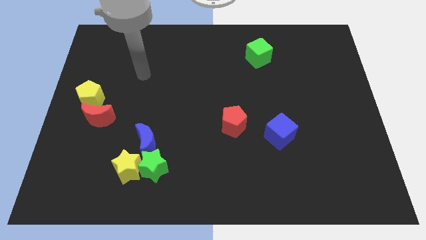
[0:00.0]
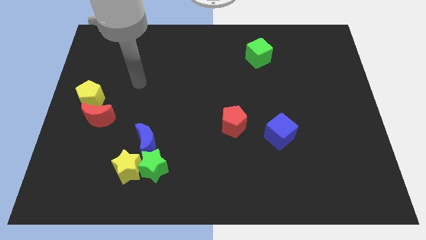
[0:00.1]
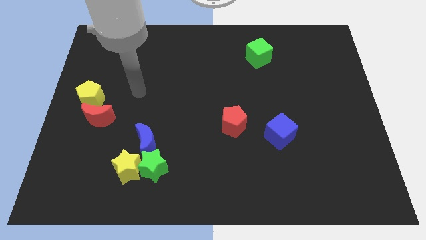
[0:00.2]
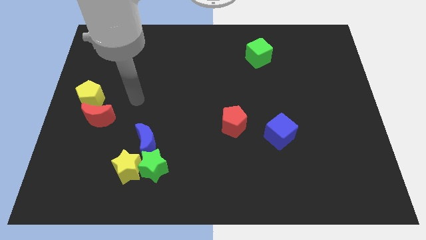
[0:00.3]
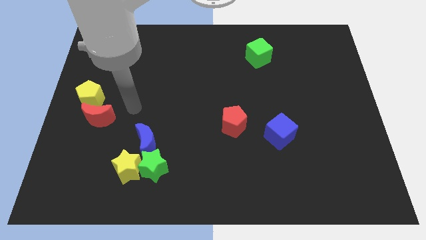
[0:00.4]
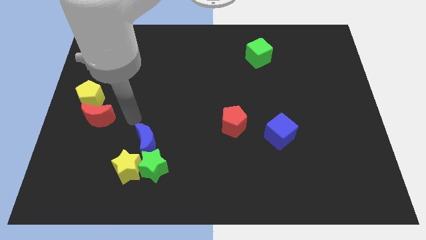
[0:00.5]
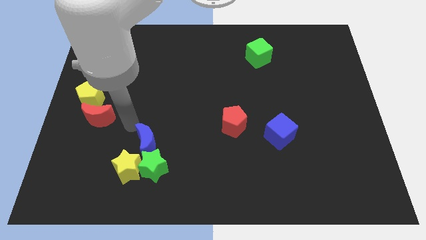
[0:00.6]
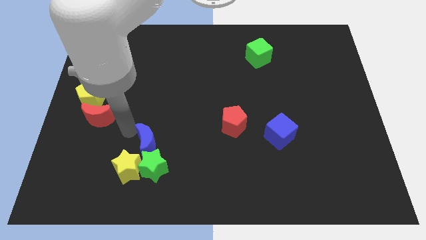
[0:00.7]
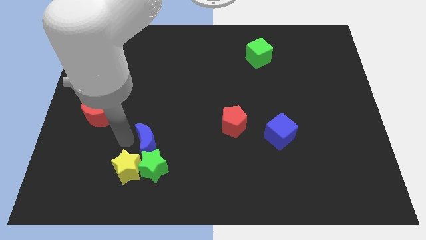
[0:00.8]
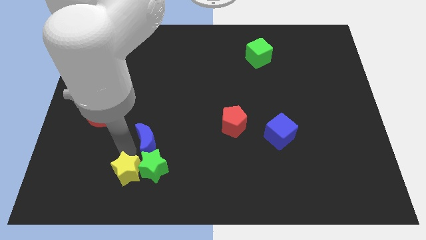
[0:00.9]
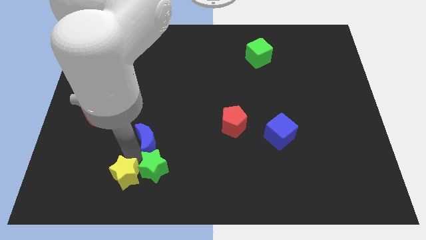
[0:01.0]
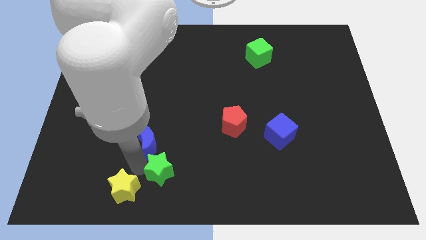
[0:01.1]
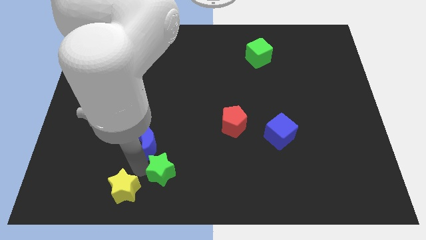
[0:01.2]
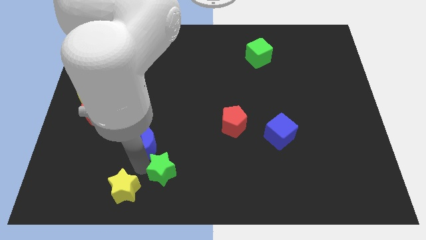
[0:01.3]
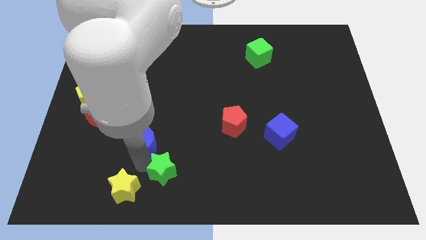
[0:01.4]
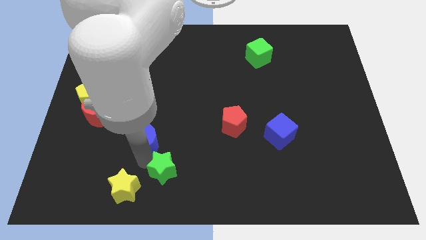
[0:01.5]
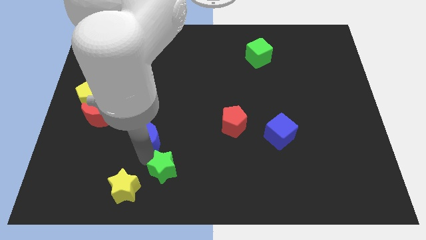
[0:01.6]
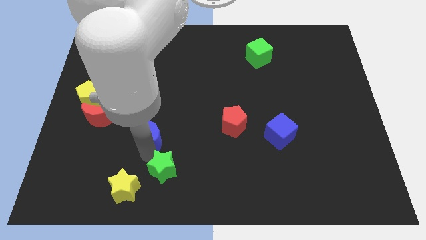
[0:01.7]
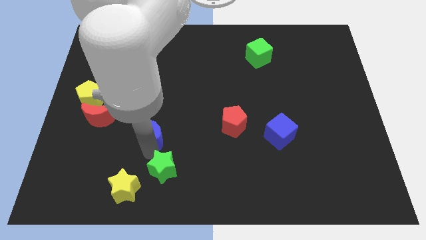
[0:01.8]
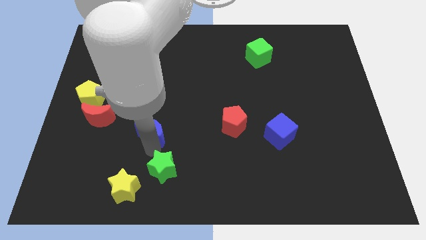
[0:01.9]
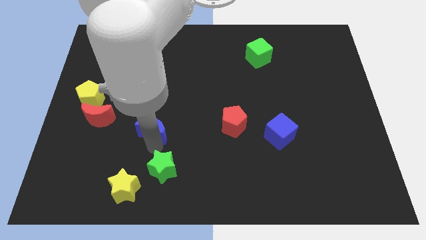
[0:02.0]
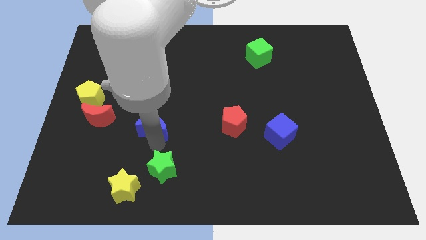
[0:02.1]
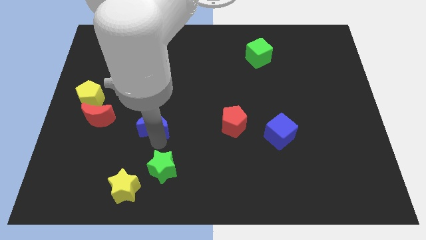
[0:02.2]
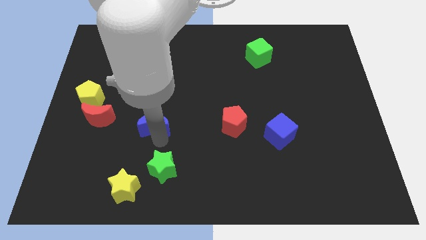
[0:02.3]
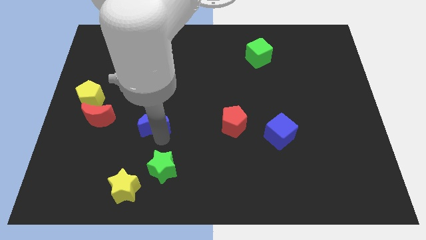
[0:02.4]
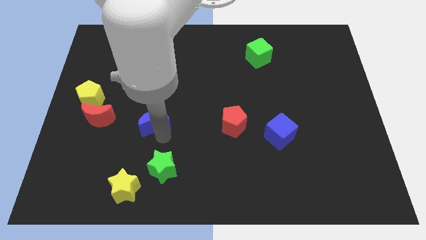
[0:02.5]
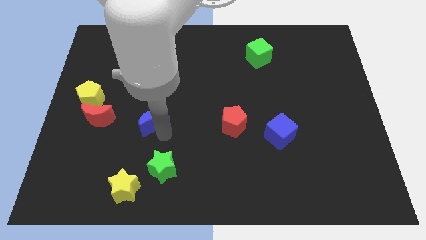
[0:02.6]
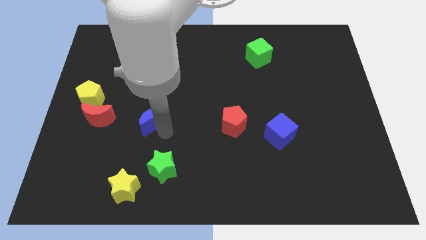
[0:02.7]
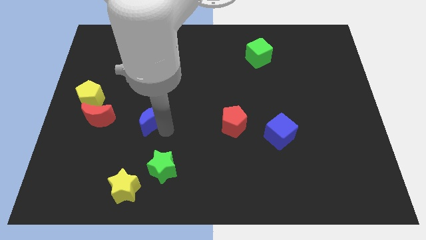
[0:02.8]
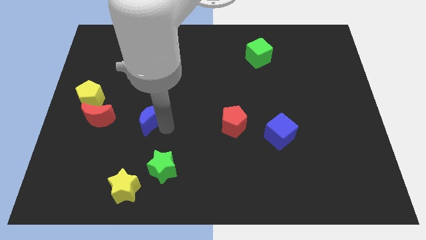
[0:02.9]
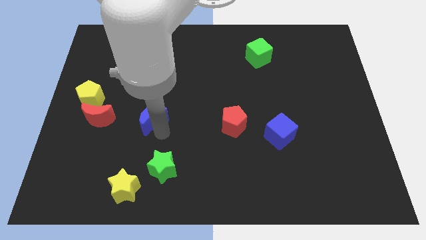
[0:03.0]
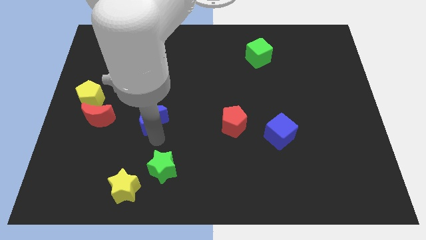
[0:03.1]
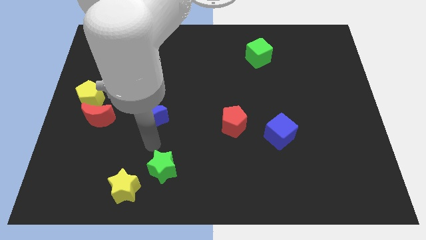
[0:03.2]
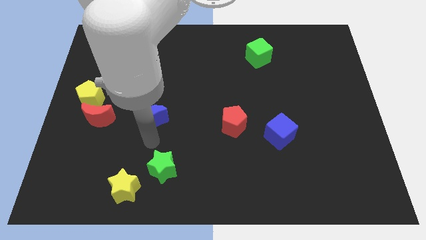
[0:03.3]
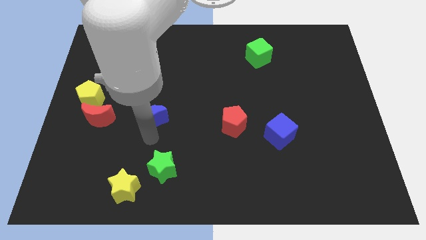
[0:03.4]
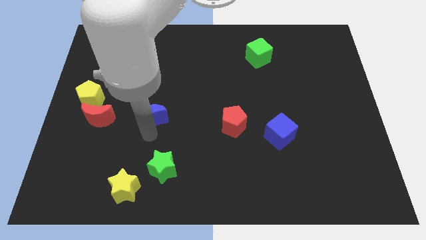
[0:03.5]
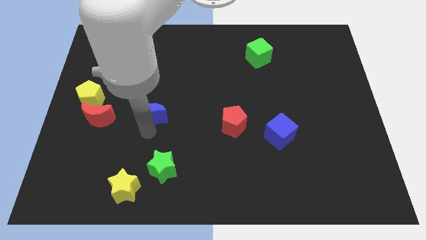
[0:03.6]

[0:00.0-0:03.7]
move the blue moon up somewhat

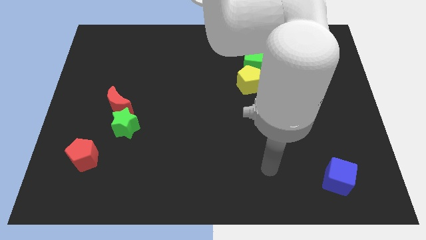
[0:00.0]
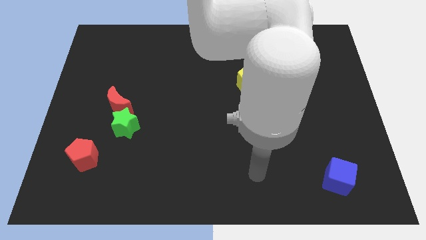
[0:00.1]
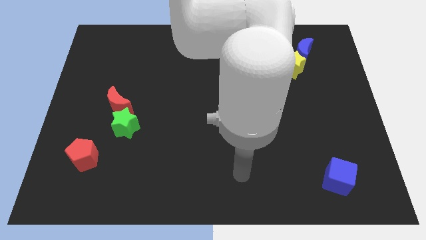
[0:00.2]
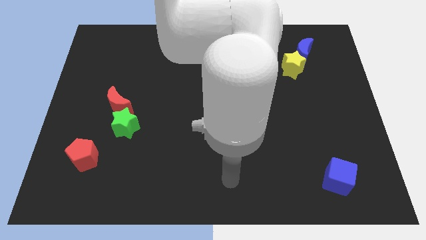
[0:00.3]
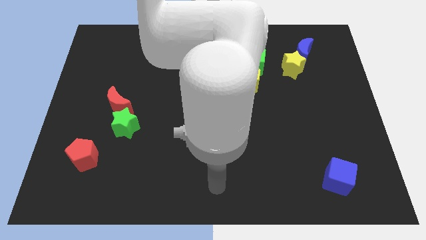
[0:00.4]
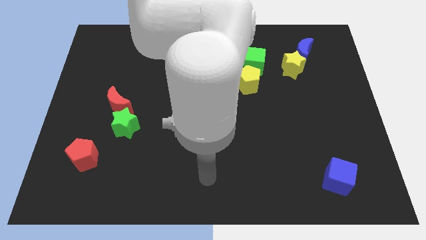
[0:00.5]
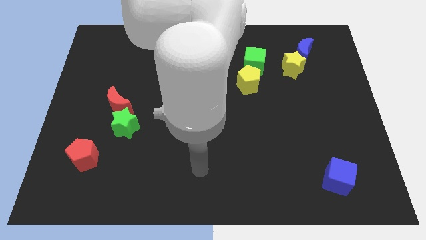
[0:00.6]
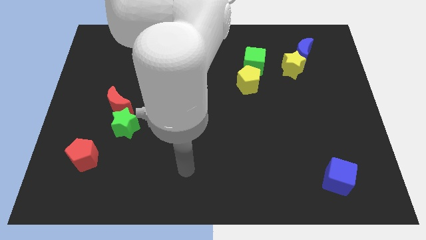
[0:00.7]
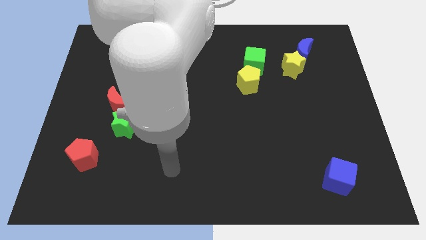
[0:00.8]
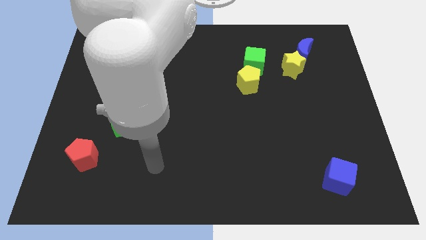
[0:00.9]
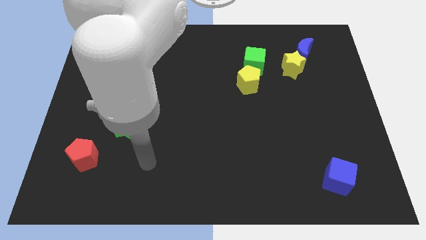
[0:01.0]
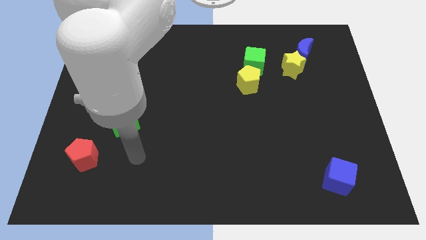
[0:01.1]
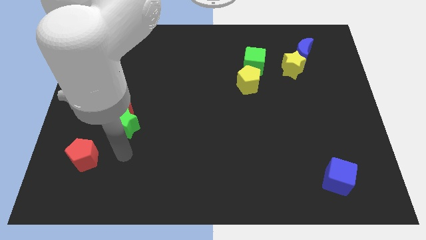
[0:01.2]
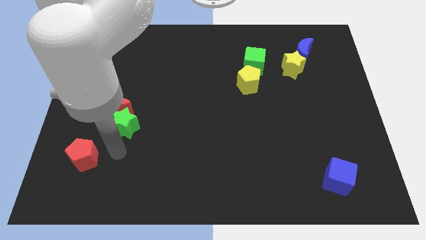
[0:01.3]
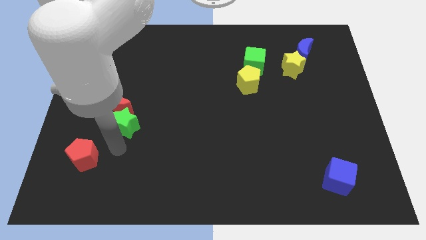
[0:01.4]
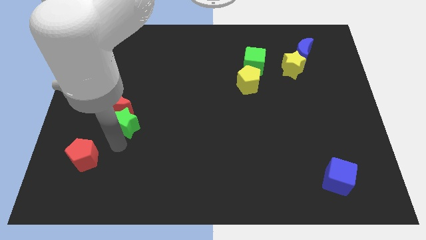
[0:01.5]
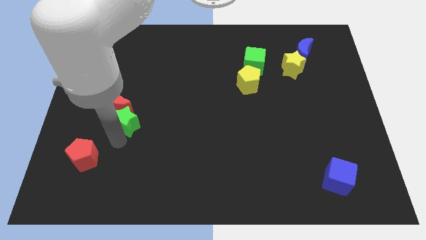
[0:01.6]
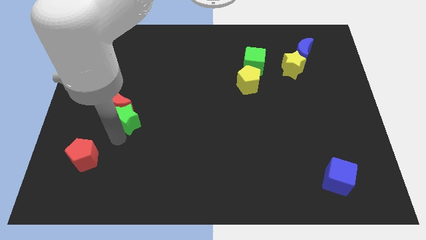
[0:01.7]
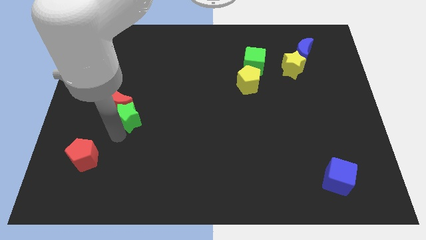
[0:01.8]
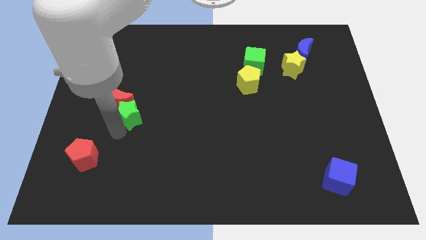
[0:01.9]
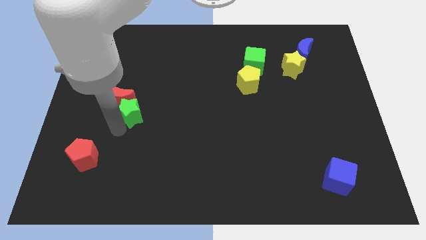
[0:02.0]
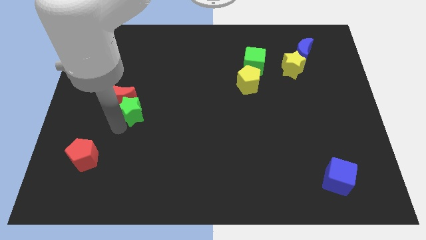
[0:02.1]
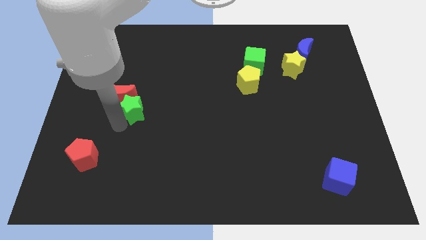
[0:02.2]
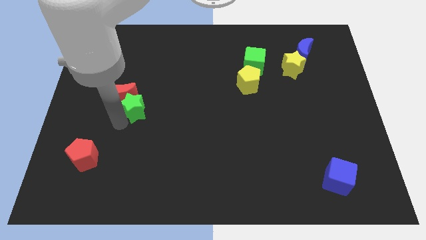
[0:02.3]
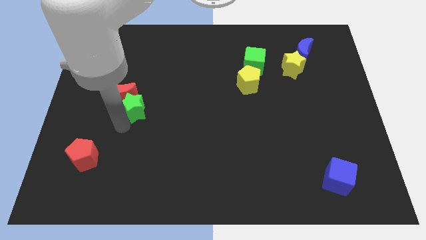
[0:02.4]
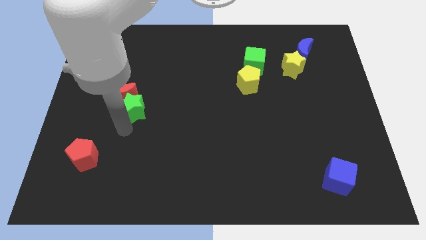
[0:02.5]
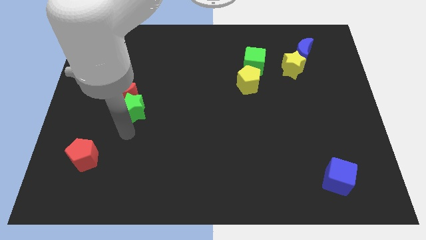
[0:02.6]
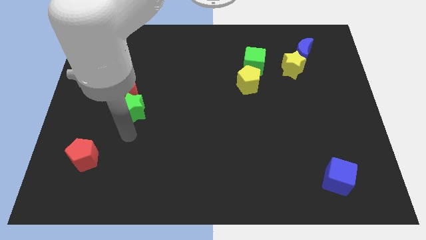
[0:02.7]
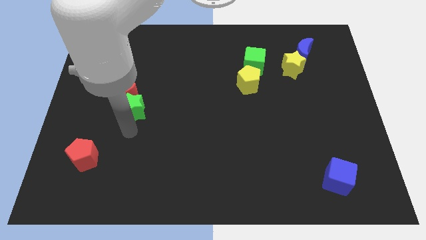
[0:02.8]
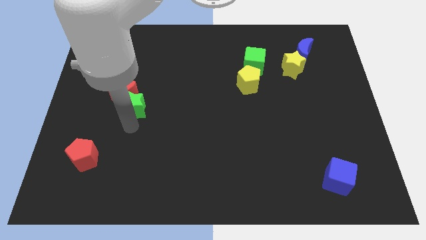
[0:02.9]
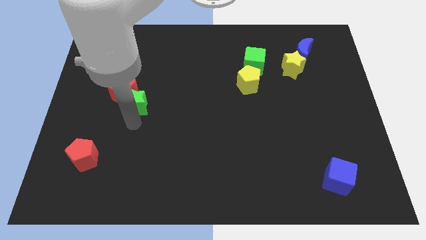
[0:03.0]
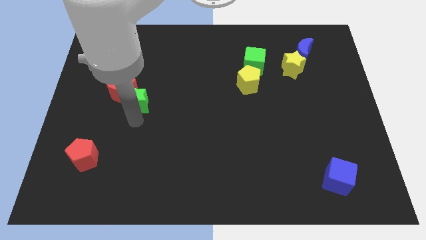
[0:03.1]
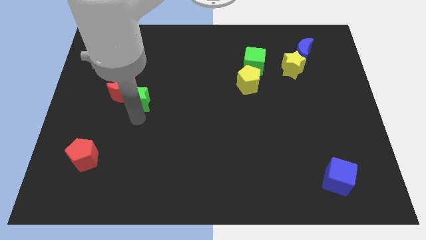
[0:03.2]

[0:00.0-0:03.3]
push the green star somewhat up

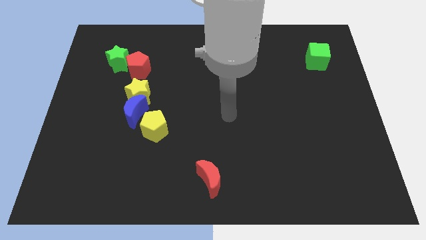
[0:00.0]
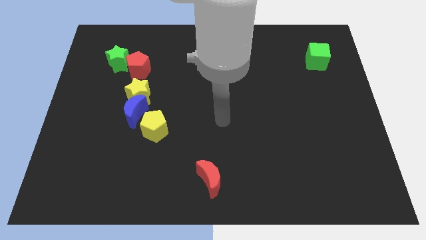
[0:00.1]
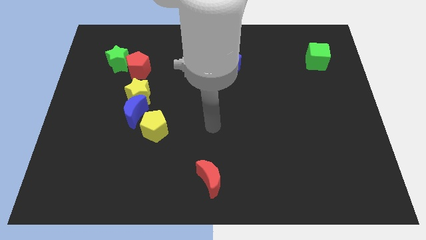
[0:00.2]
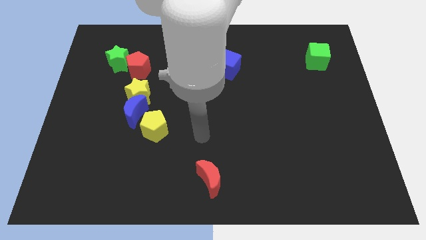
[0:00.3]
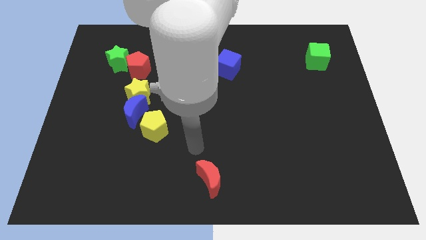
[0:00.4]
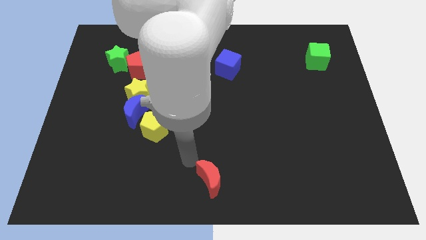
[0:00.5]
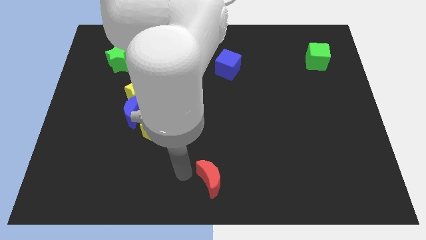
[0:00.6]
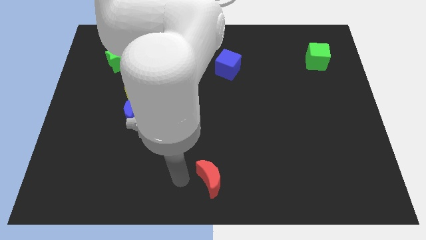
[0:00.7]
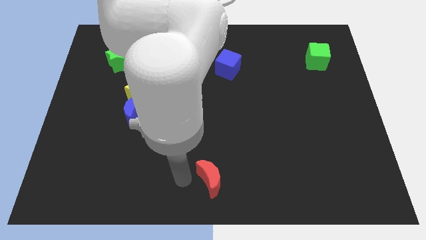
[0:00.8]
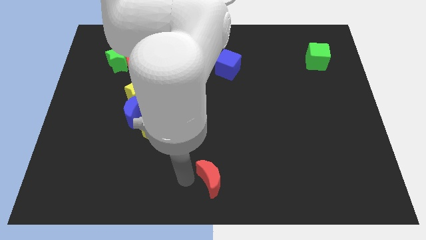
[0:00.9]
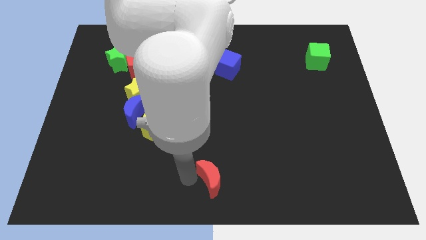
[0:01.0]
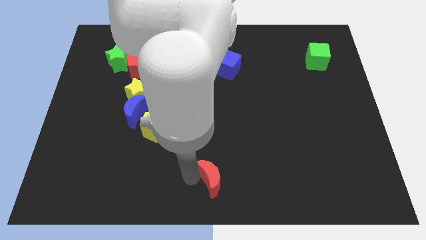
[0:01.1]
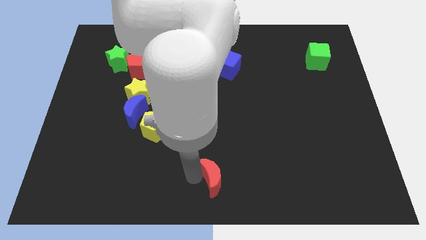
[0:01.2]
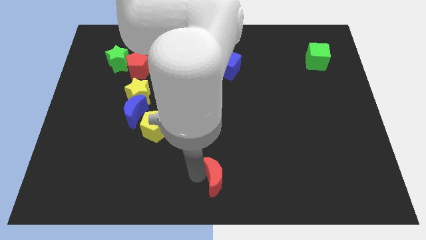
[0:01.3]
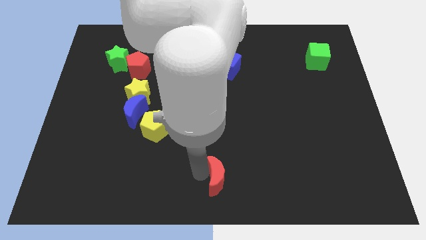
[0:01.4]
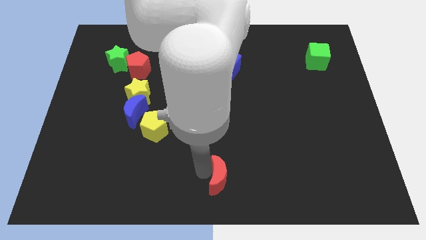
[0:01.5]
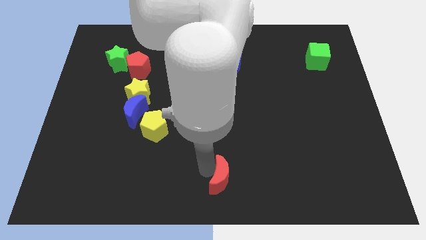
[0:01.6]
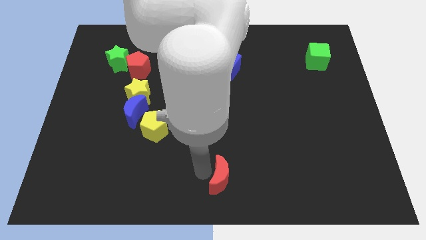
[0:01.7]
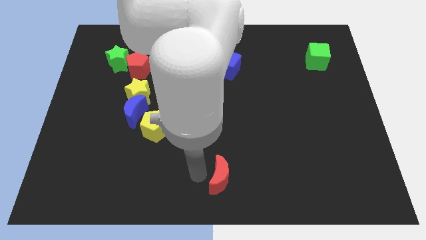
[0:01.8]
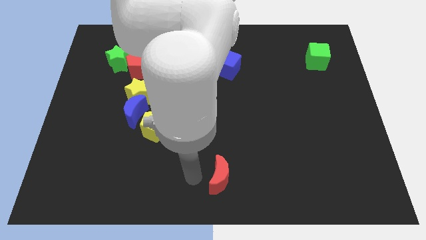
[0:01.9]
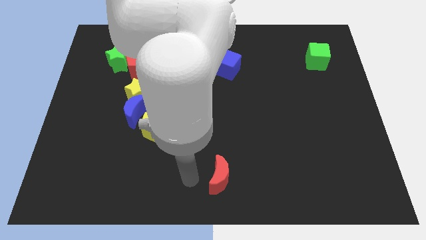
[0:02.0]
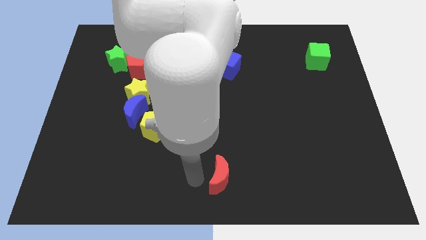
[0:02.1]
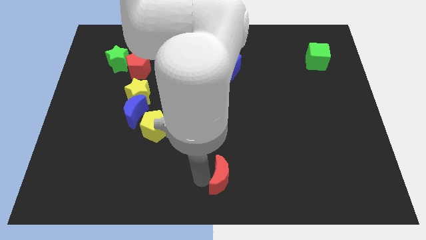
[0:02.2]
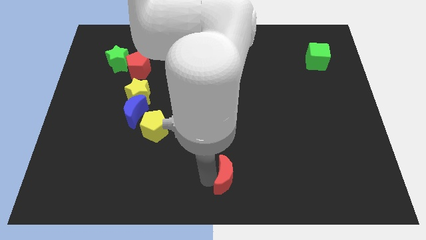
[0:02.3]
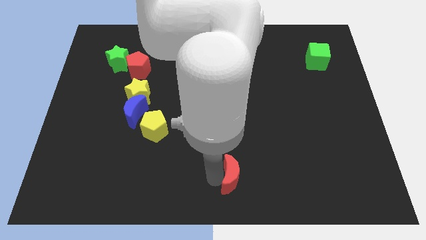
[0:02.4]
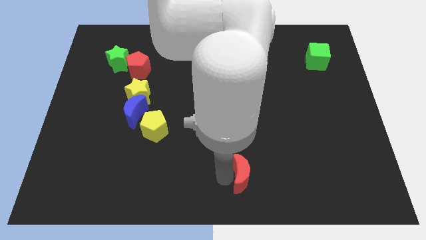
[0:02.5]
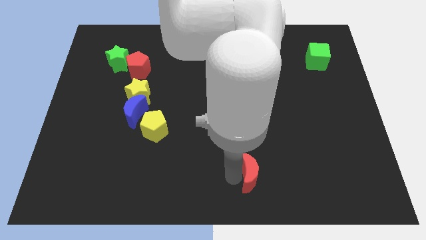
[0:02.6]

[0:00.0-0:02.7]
push the red moon a bit to the right
